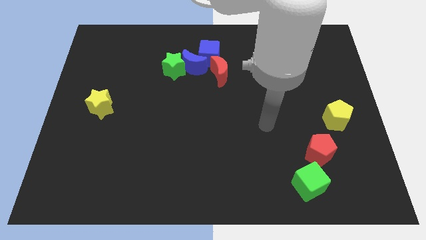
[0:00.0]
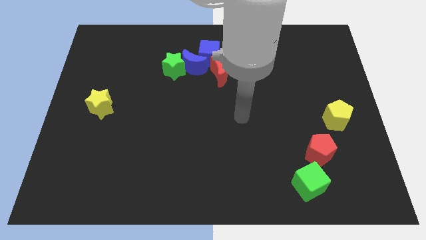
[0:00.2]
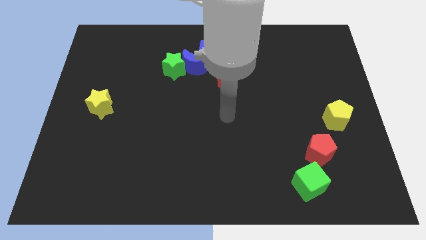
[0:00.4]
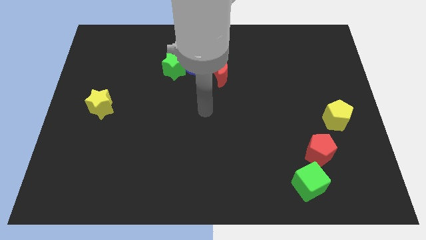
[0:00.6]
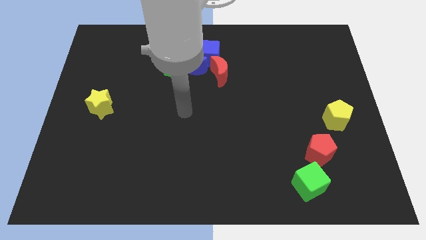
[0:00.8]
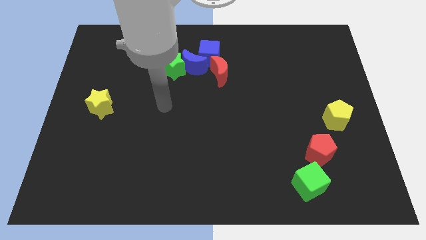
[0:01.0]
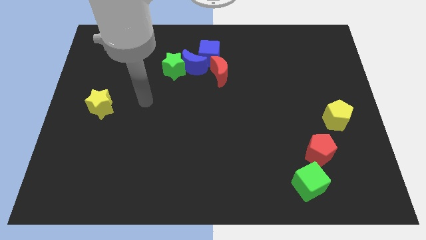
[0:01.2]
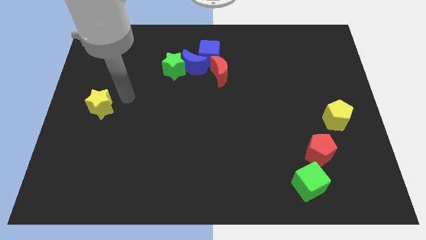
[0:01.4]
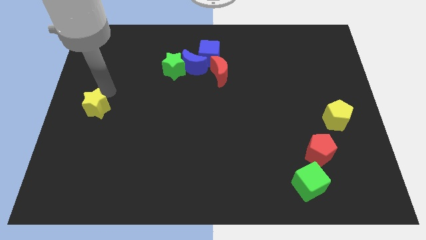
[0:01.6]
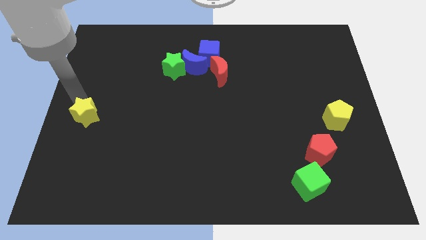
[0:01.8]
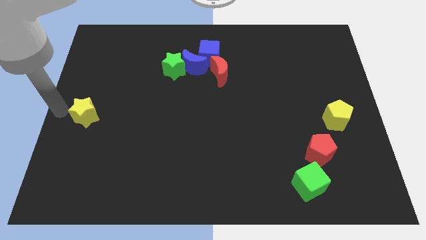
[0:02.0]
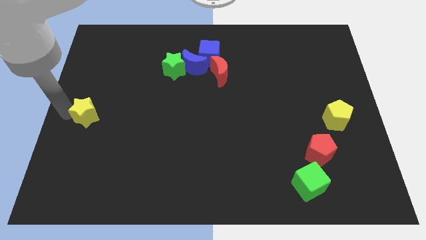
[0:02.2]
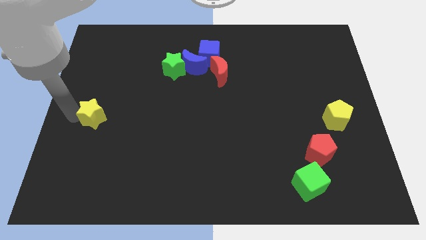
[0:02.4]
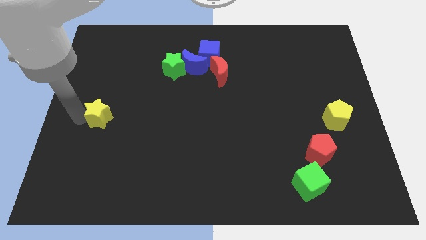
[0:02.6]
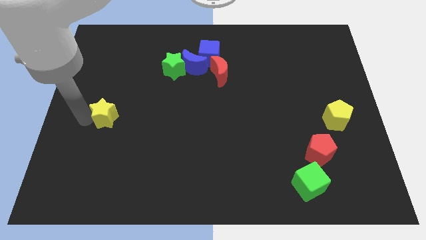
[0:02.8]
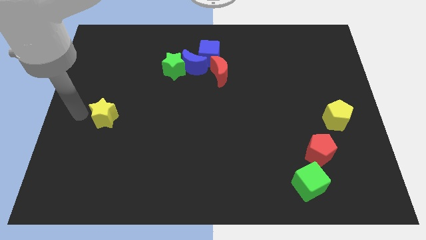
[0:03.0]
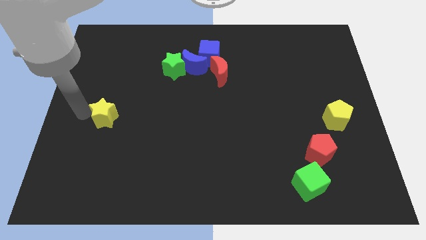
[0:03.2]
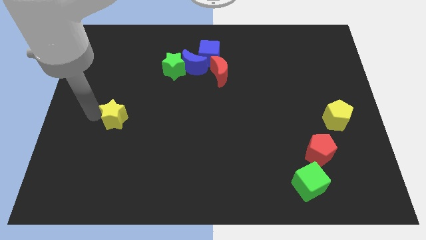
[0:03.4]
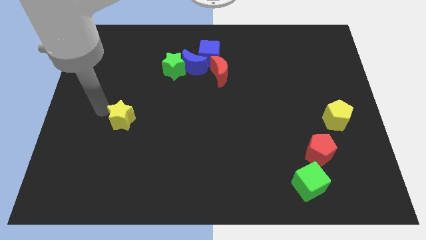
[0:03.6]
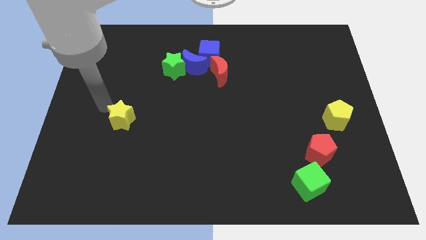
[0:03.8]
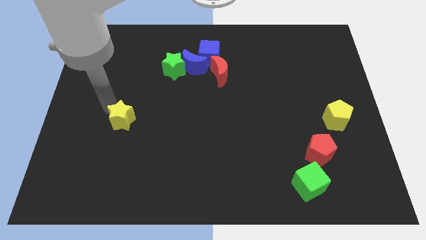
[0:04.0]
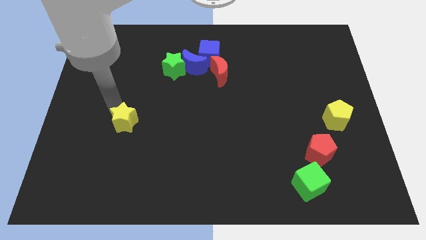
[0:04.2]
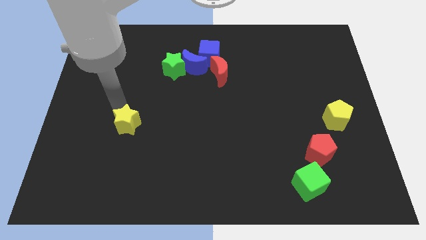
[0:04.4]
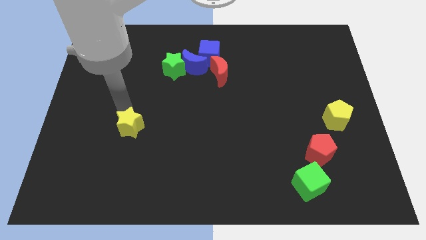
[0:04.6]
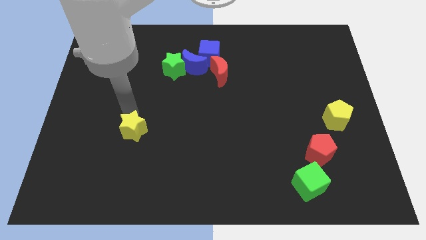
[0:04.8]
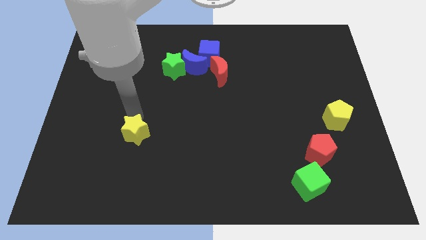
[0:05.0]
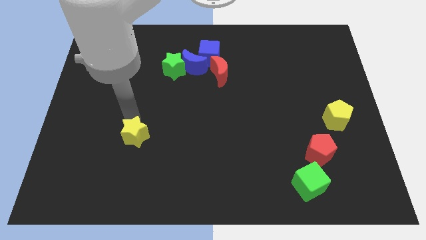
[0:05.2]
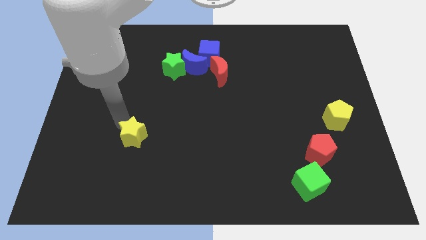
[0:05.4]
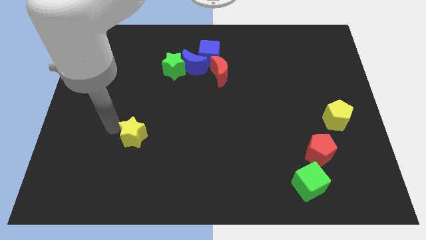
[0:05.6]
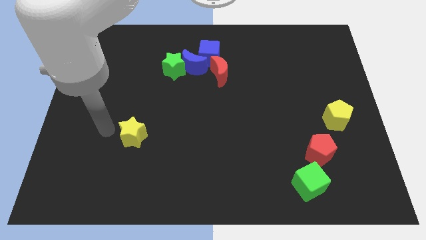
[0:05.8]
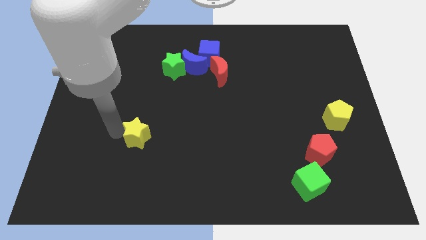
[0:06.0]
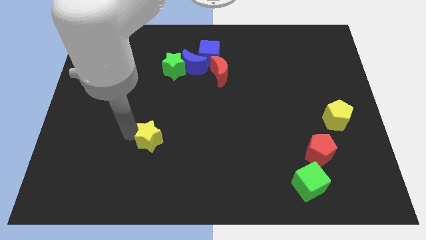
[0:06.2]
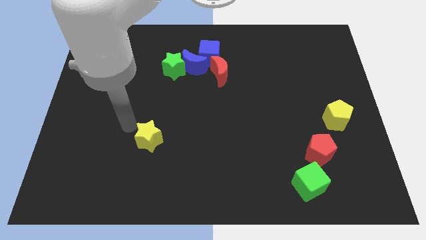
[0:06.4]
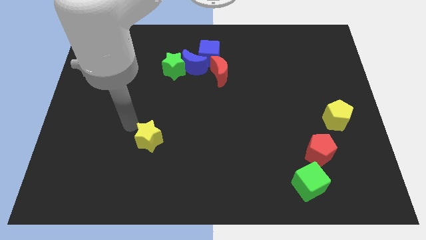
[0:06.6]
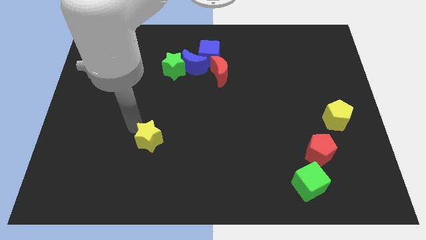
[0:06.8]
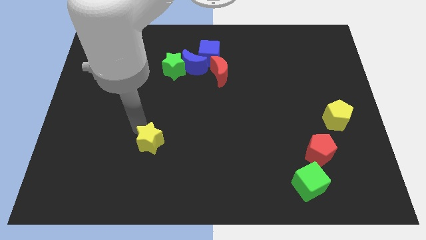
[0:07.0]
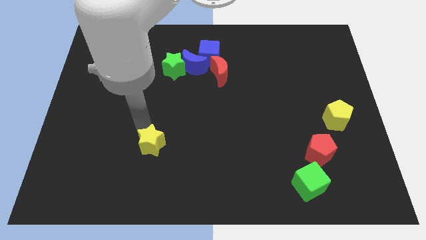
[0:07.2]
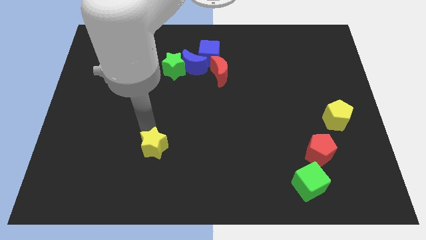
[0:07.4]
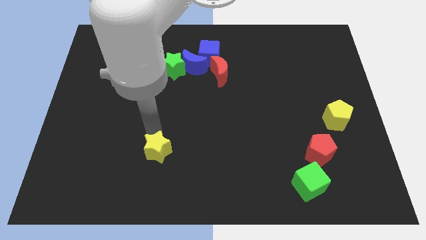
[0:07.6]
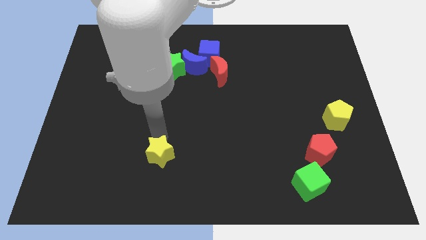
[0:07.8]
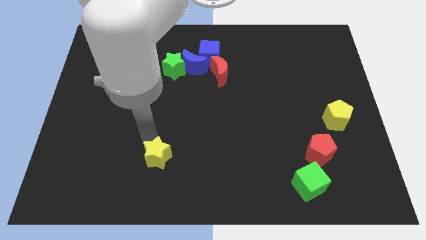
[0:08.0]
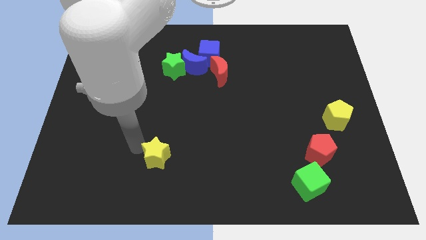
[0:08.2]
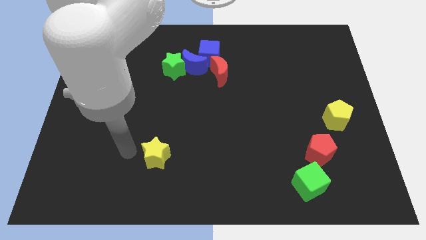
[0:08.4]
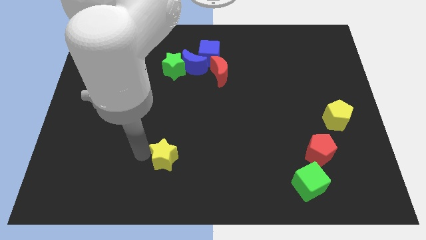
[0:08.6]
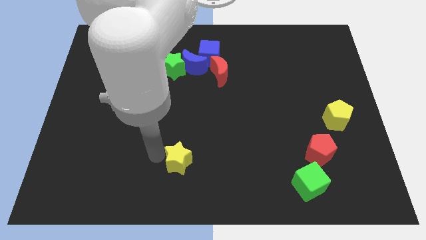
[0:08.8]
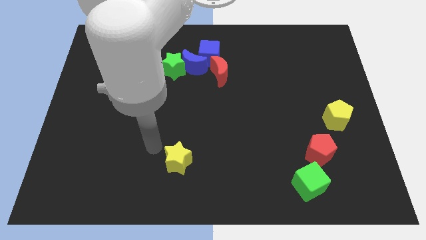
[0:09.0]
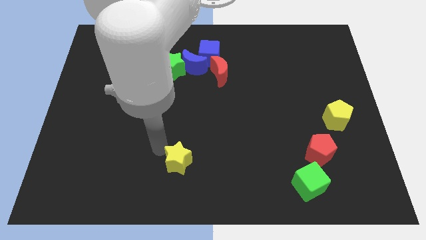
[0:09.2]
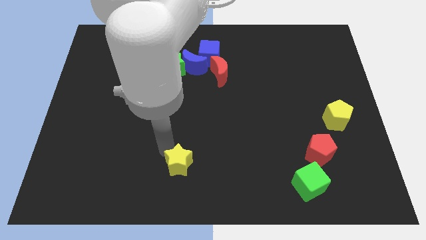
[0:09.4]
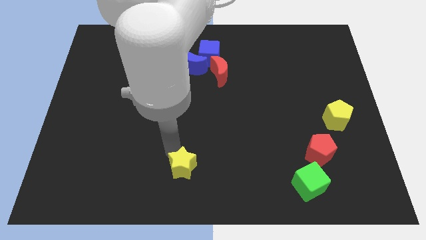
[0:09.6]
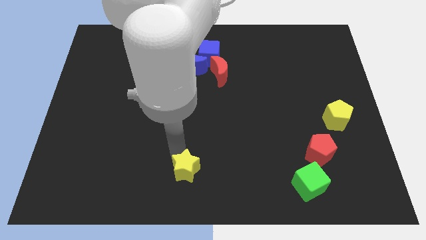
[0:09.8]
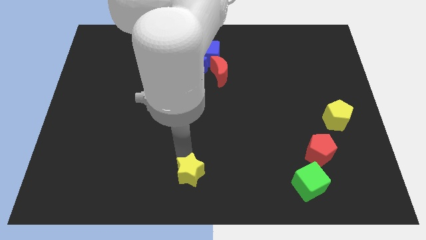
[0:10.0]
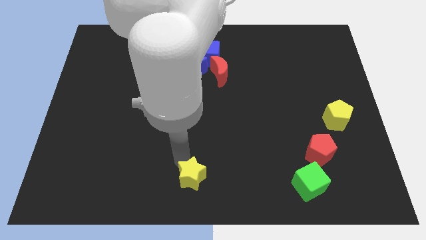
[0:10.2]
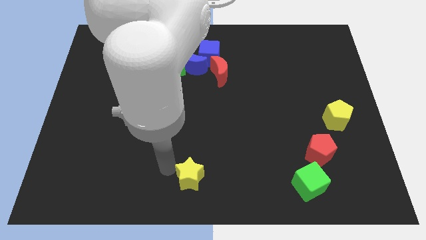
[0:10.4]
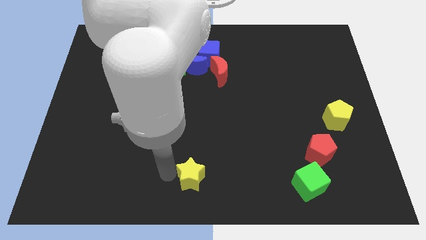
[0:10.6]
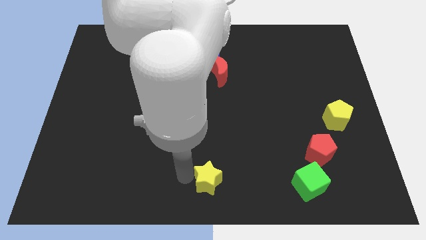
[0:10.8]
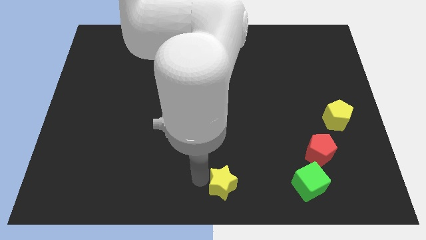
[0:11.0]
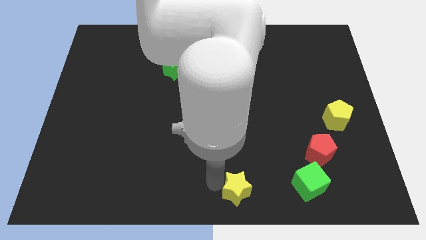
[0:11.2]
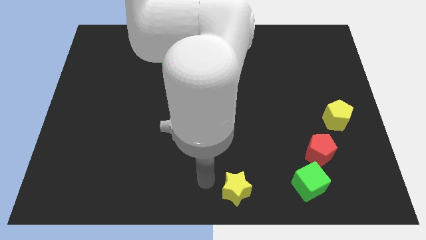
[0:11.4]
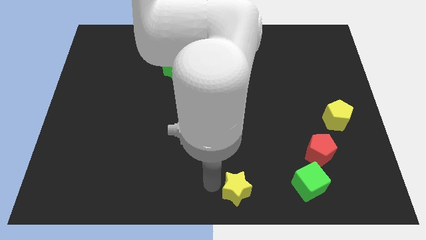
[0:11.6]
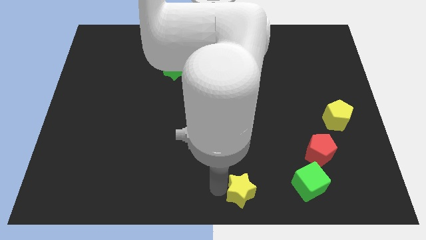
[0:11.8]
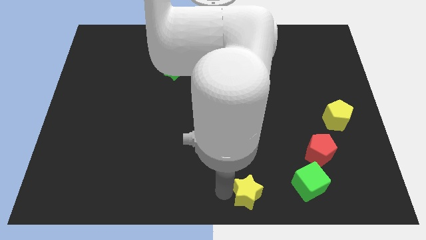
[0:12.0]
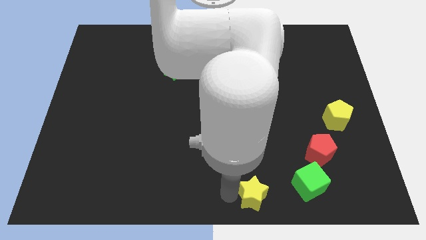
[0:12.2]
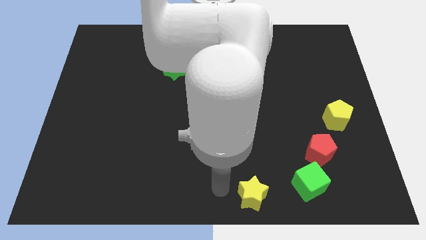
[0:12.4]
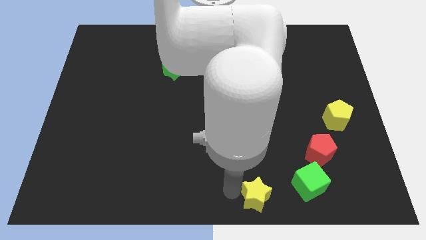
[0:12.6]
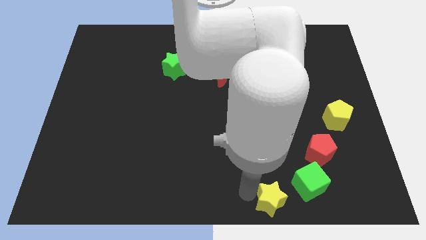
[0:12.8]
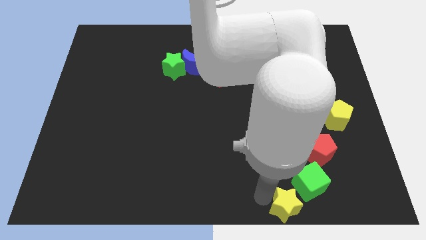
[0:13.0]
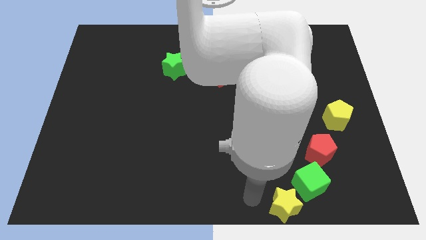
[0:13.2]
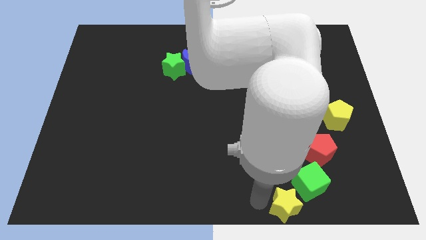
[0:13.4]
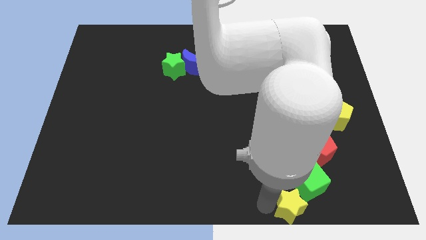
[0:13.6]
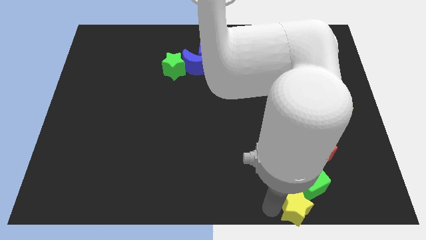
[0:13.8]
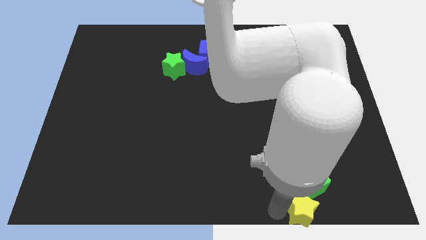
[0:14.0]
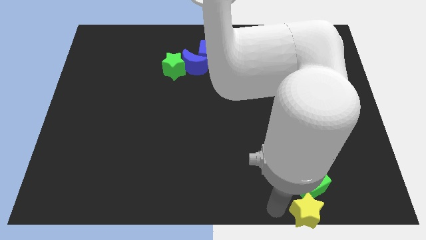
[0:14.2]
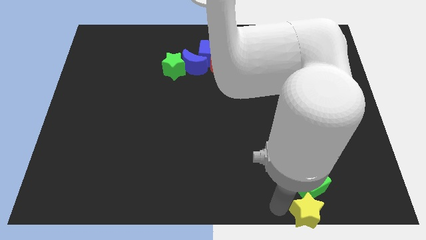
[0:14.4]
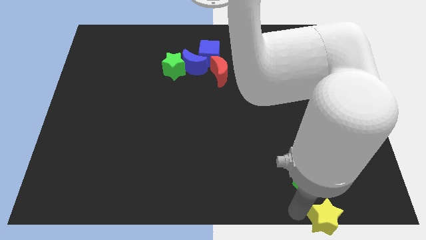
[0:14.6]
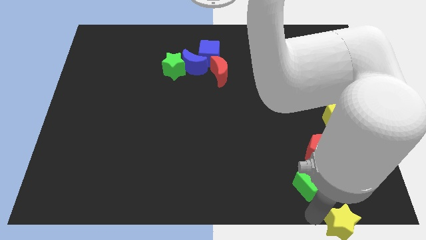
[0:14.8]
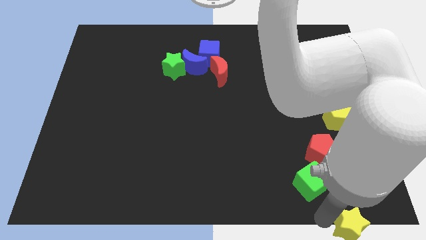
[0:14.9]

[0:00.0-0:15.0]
push the yellow star to the lower right corner
